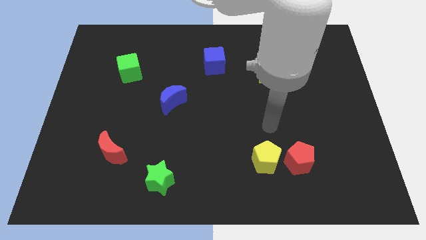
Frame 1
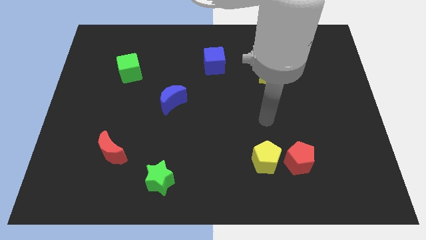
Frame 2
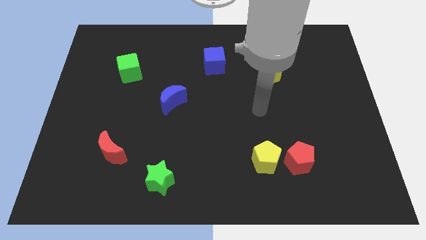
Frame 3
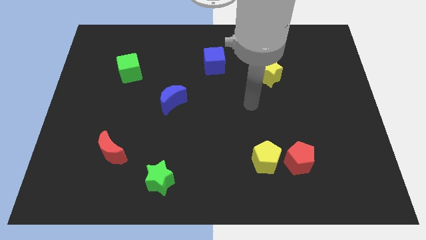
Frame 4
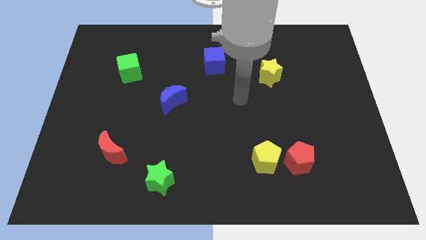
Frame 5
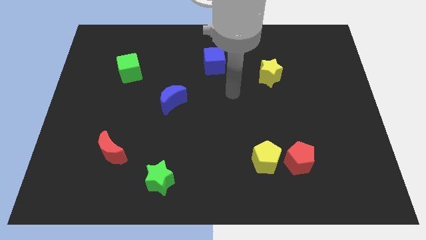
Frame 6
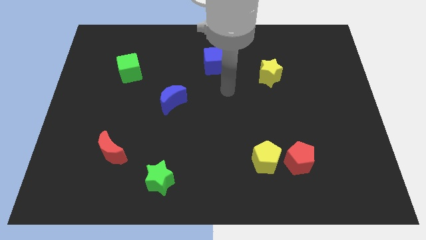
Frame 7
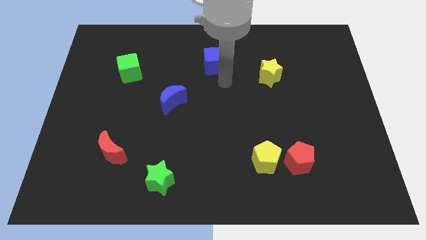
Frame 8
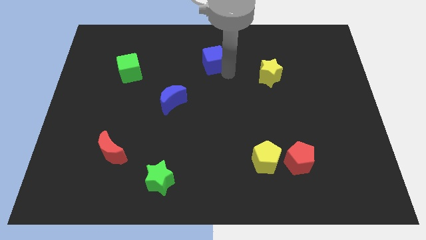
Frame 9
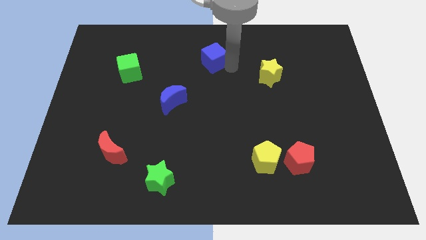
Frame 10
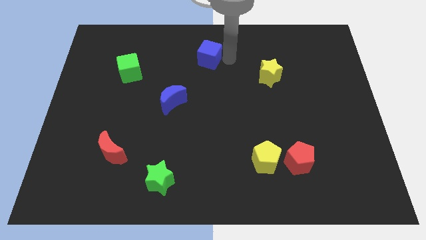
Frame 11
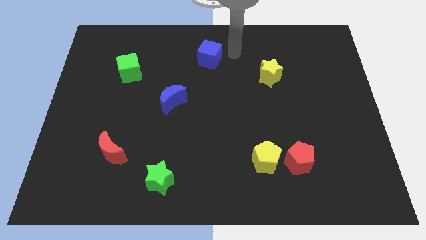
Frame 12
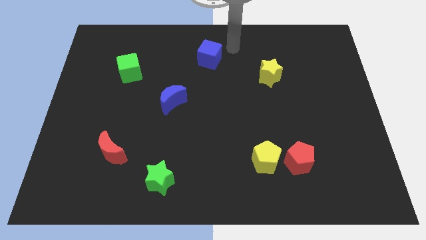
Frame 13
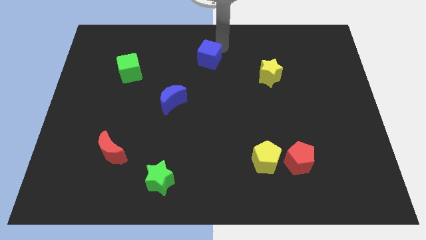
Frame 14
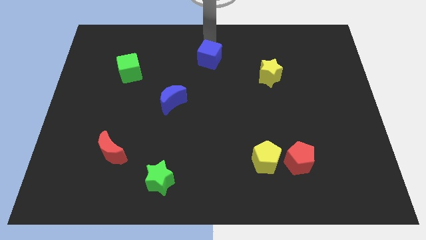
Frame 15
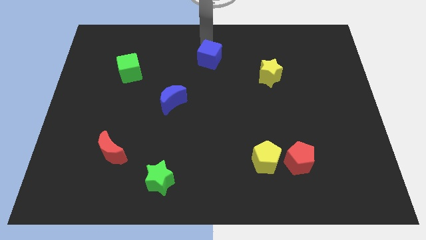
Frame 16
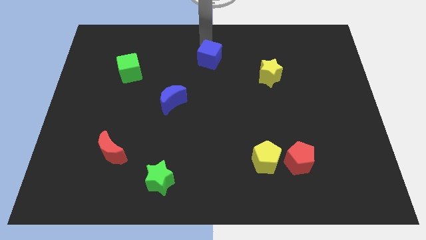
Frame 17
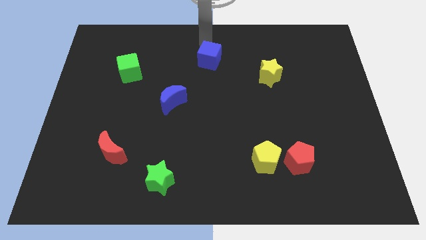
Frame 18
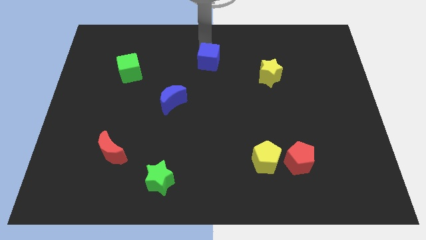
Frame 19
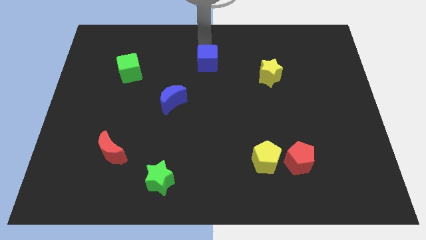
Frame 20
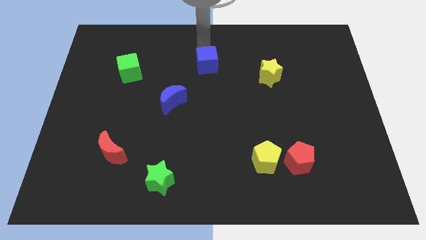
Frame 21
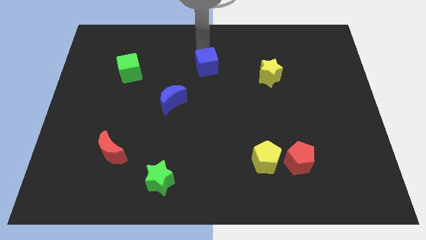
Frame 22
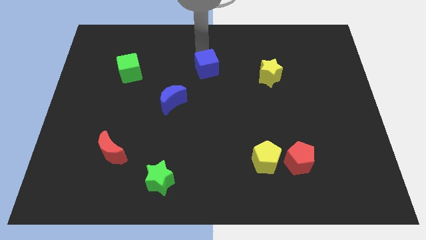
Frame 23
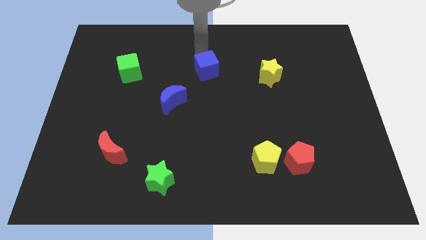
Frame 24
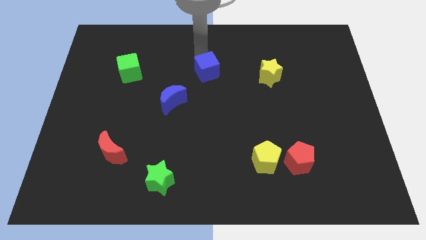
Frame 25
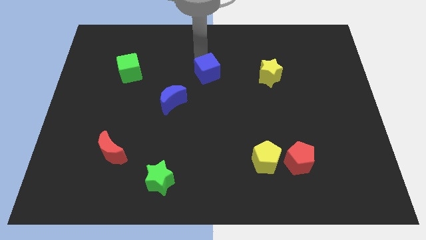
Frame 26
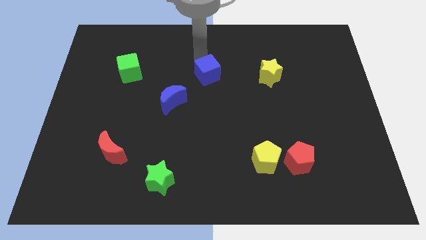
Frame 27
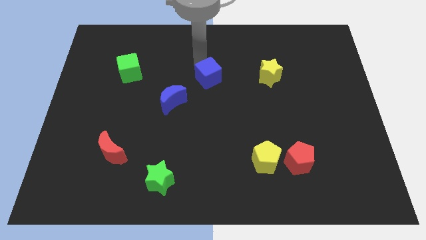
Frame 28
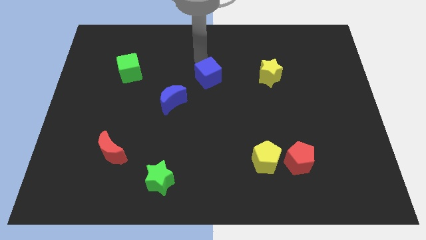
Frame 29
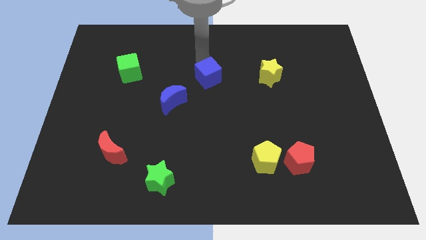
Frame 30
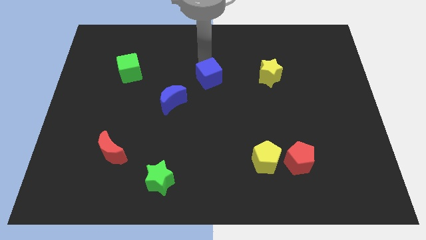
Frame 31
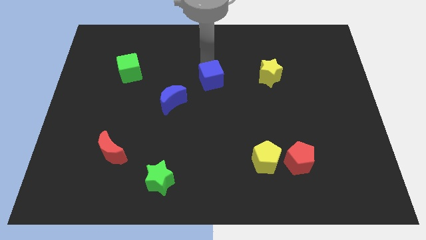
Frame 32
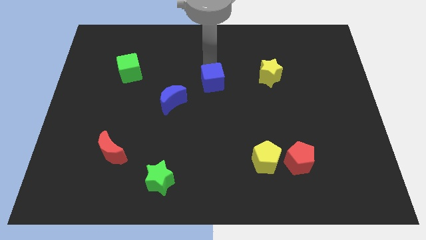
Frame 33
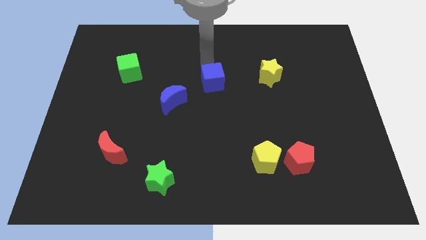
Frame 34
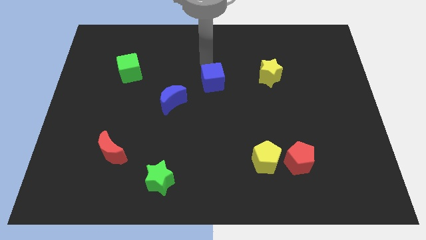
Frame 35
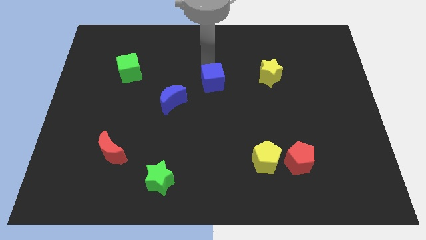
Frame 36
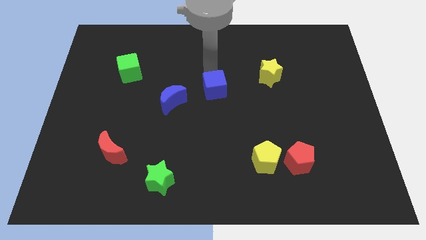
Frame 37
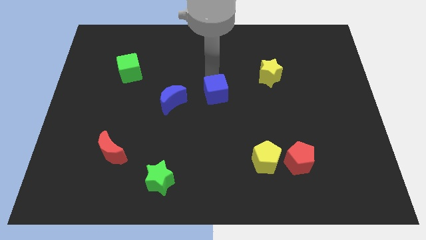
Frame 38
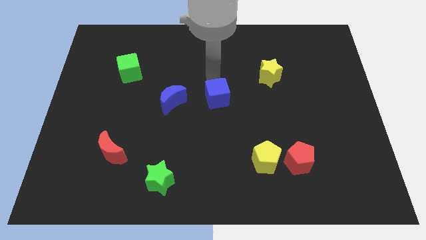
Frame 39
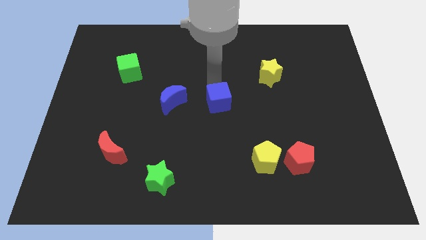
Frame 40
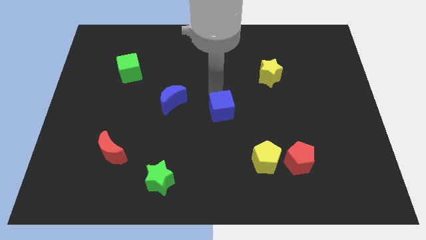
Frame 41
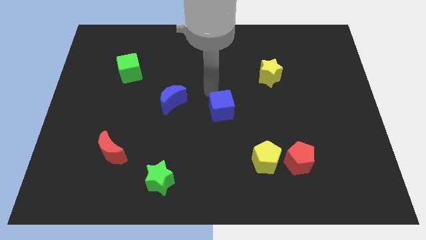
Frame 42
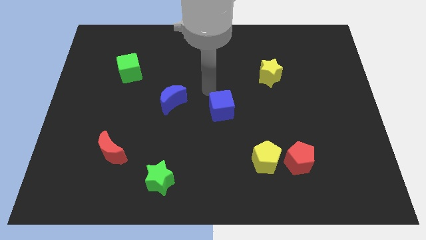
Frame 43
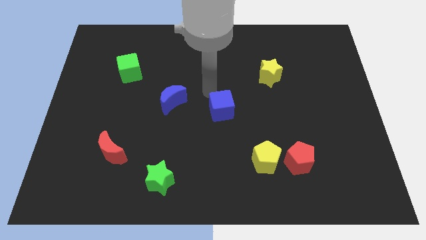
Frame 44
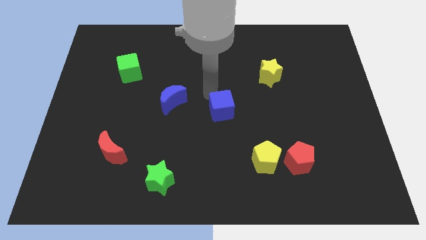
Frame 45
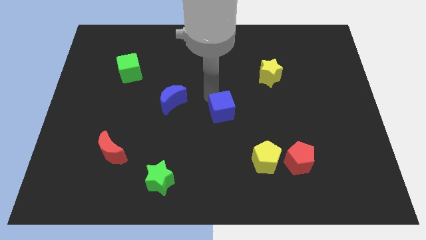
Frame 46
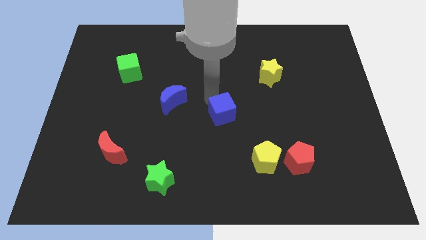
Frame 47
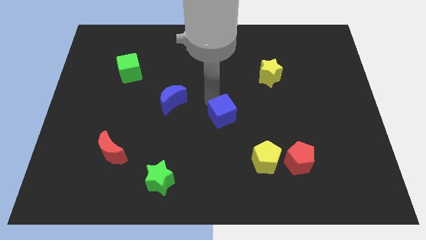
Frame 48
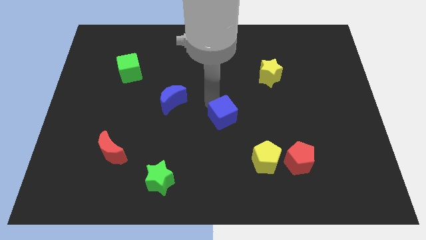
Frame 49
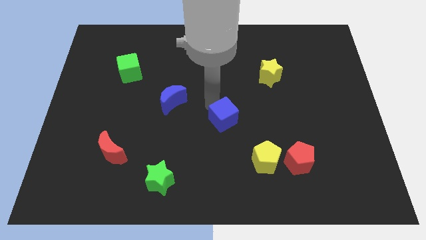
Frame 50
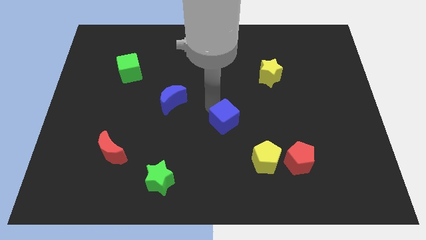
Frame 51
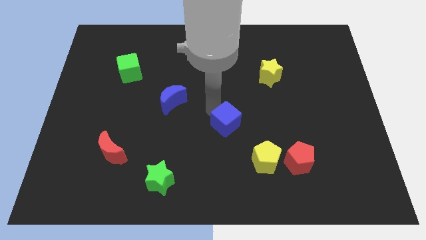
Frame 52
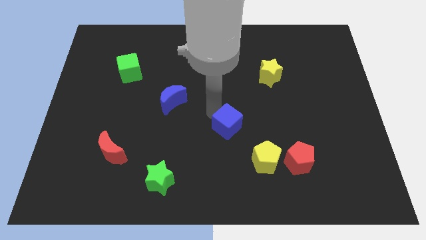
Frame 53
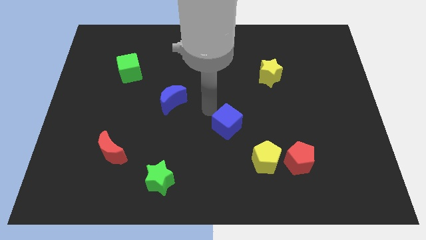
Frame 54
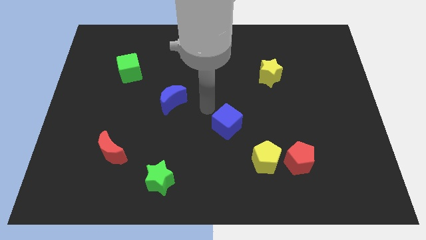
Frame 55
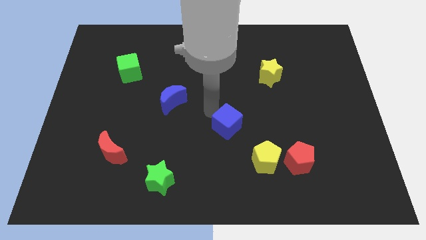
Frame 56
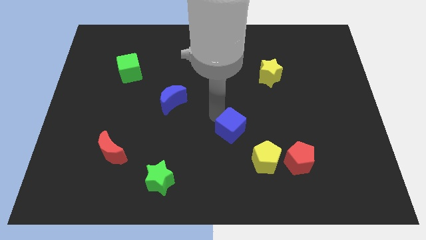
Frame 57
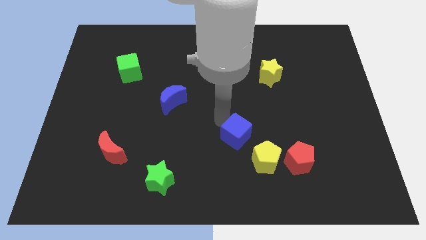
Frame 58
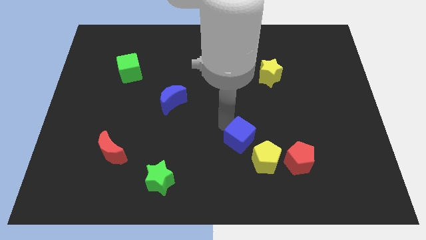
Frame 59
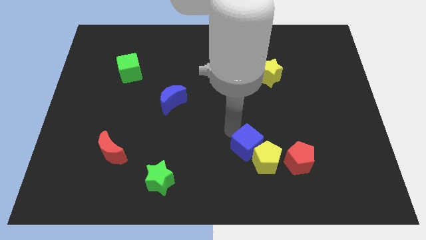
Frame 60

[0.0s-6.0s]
move the blue cube to the yellow pentagon

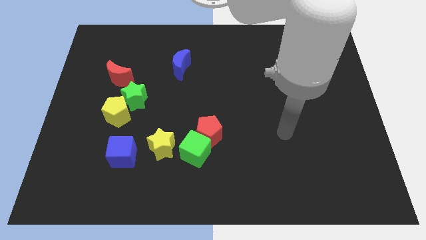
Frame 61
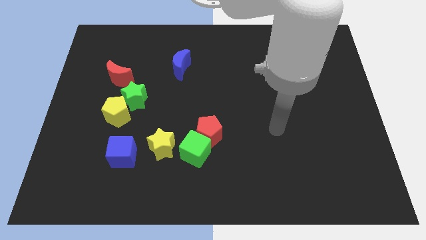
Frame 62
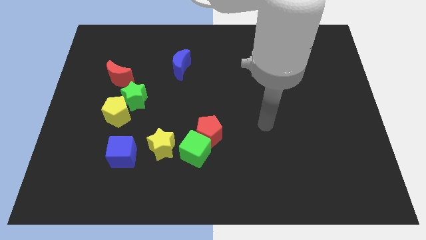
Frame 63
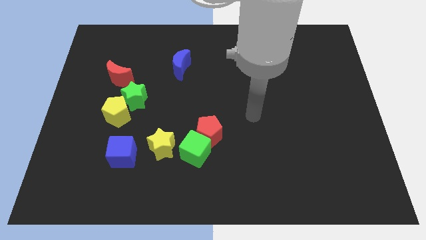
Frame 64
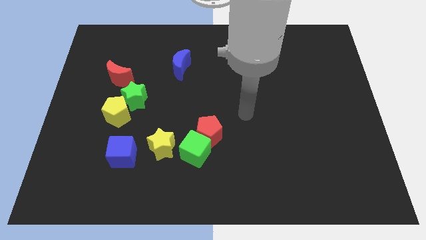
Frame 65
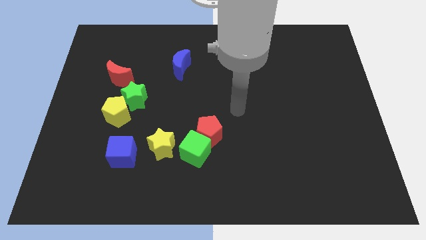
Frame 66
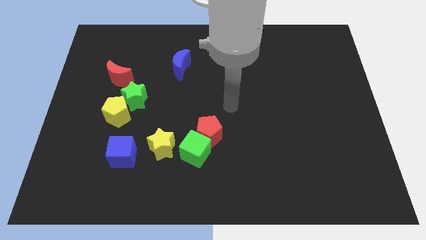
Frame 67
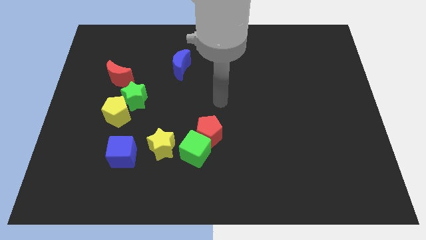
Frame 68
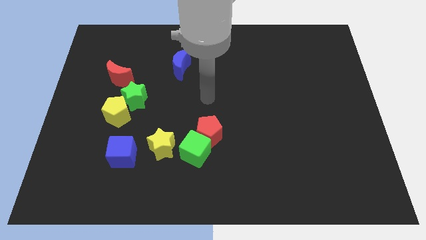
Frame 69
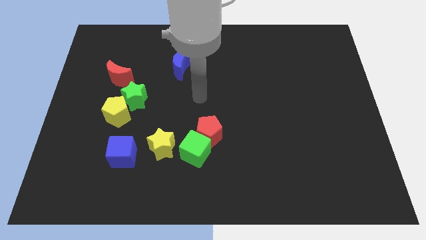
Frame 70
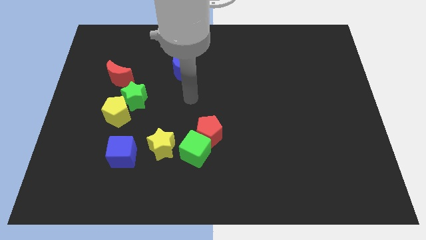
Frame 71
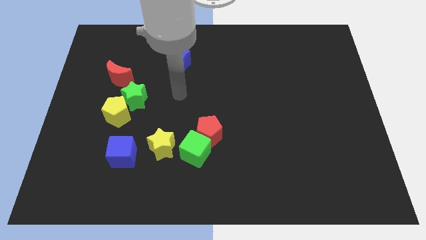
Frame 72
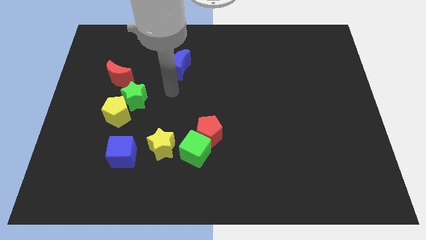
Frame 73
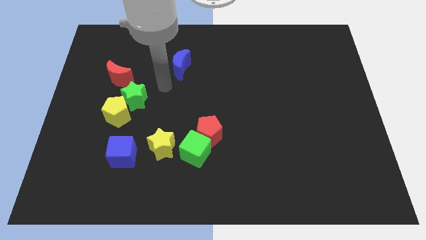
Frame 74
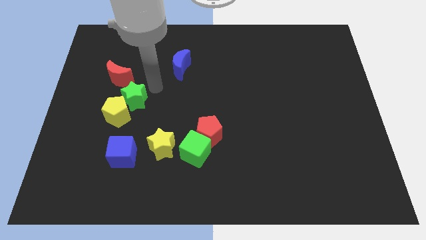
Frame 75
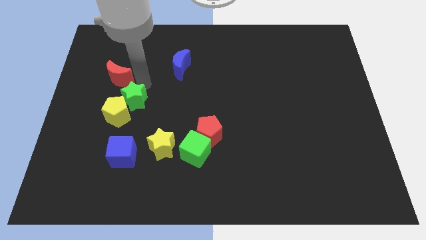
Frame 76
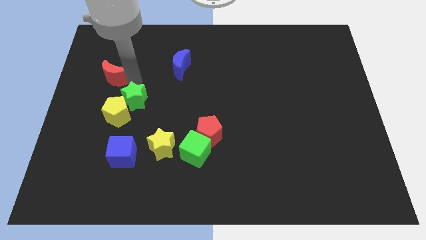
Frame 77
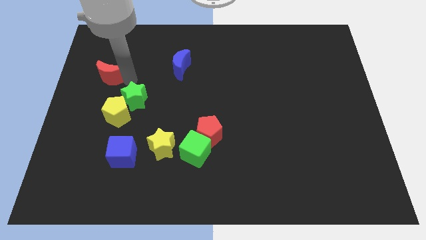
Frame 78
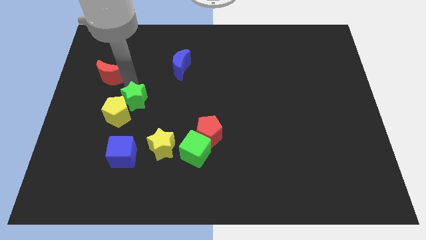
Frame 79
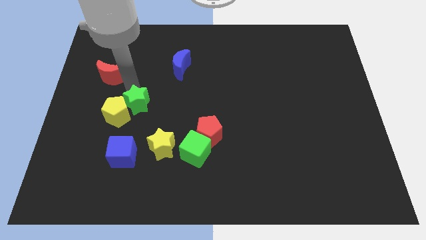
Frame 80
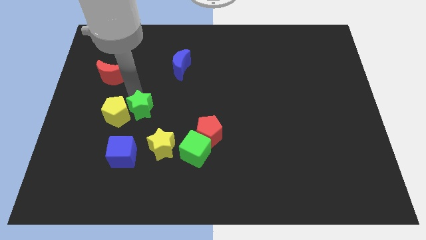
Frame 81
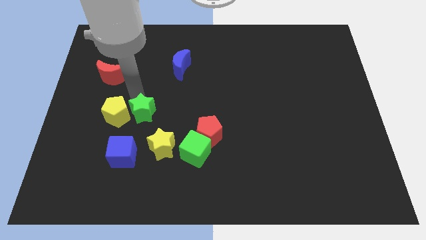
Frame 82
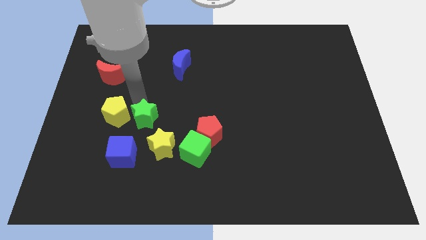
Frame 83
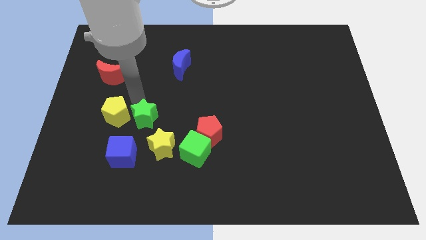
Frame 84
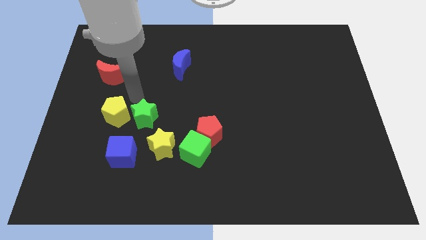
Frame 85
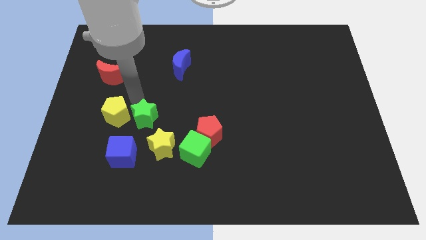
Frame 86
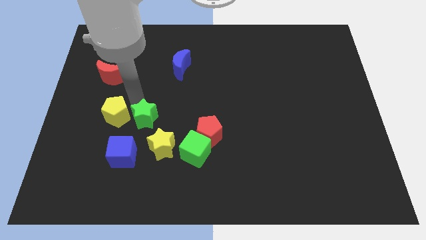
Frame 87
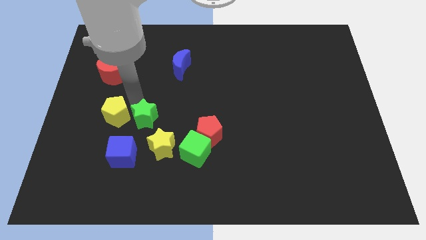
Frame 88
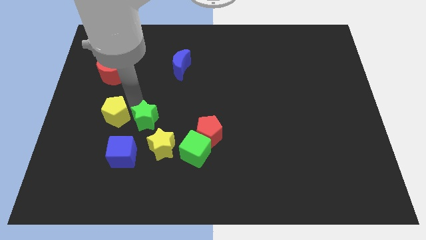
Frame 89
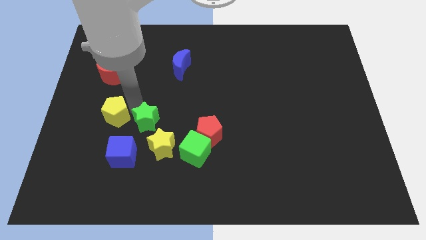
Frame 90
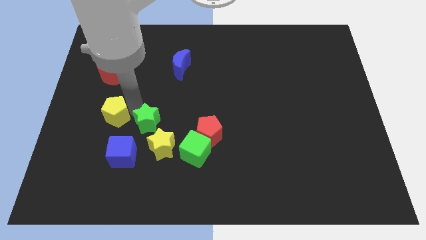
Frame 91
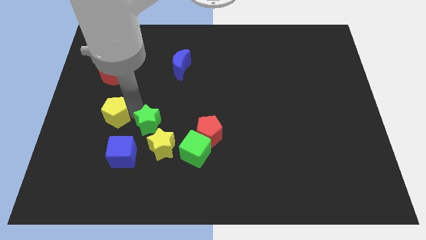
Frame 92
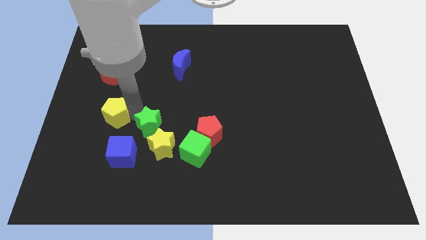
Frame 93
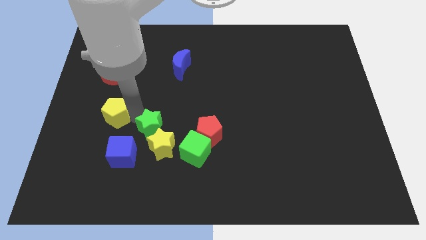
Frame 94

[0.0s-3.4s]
move the green star towards the yellow star
